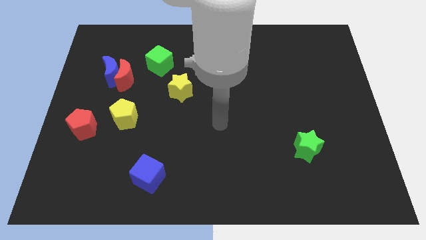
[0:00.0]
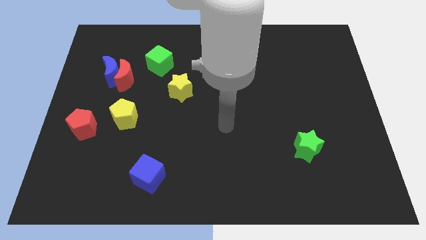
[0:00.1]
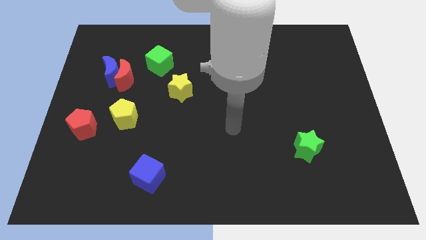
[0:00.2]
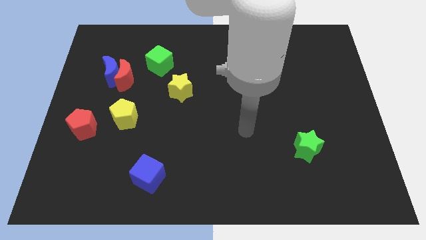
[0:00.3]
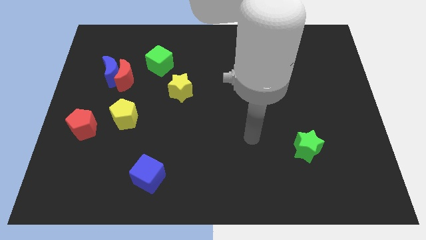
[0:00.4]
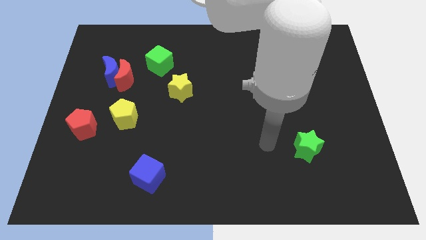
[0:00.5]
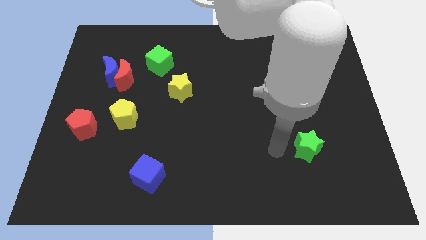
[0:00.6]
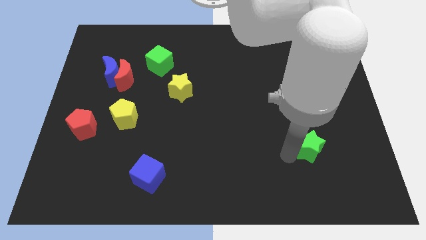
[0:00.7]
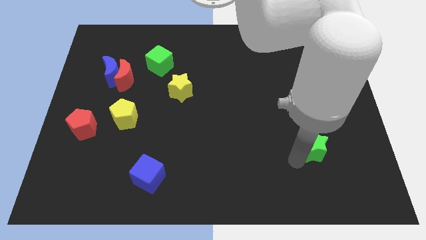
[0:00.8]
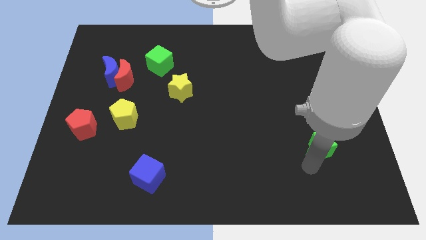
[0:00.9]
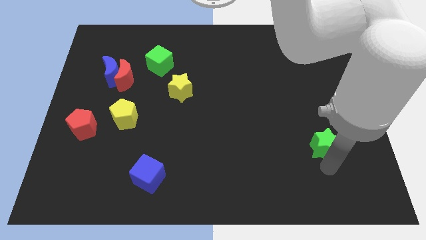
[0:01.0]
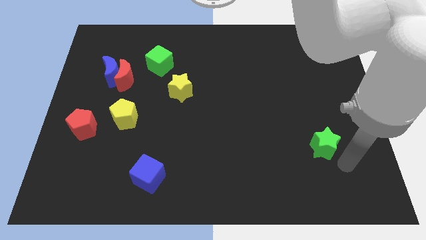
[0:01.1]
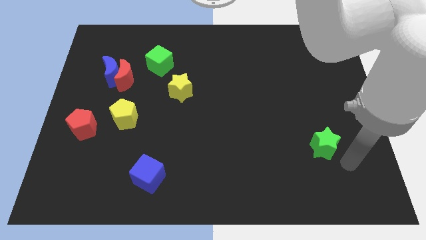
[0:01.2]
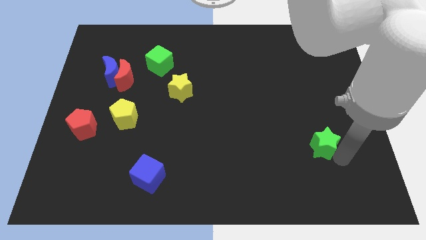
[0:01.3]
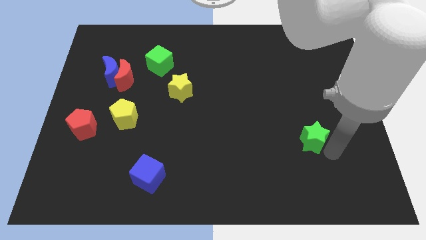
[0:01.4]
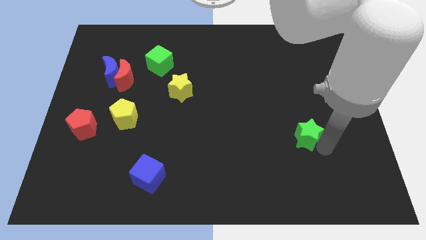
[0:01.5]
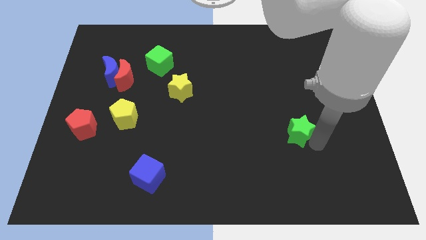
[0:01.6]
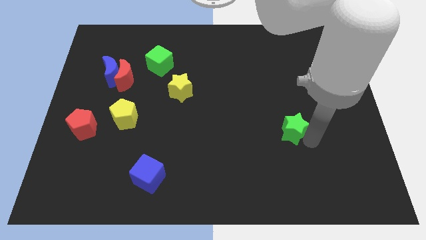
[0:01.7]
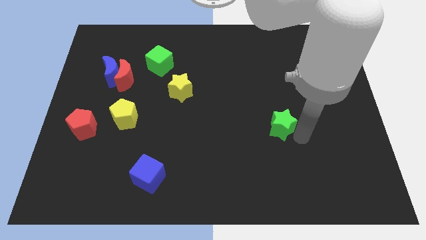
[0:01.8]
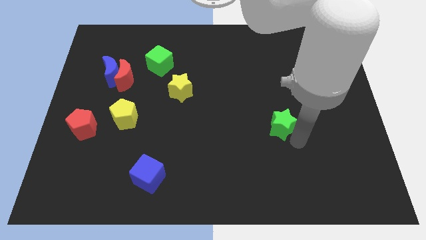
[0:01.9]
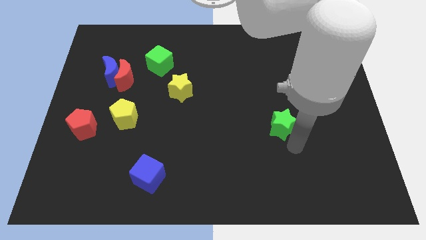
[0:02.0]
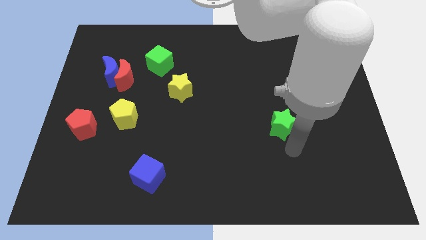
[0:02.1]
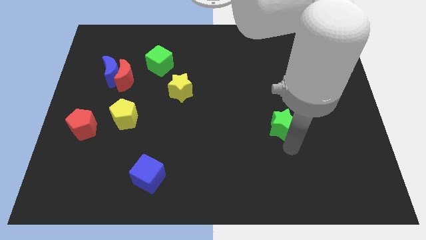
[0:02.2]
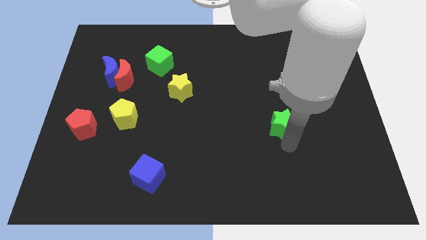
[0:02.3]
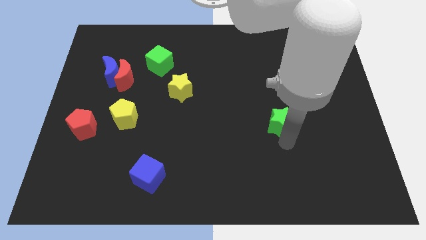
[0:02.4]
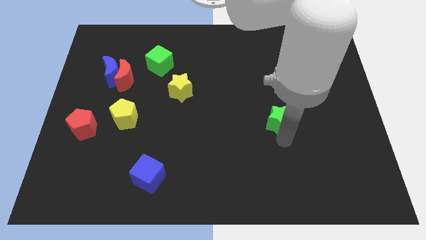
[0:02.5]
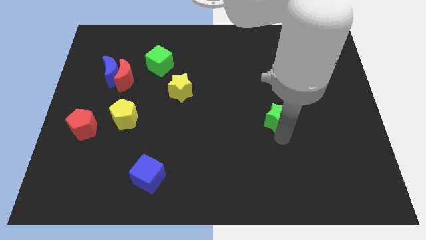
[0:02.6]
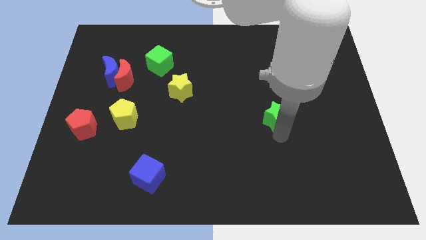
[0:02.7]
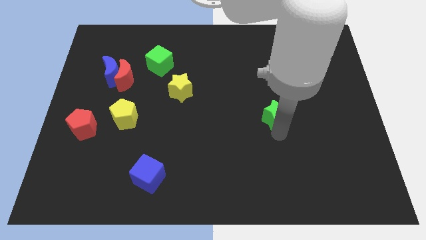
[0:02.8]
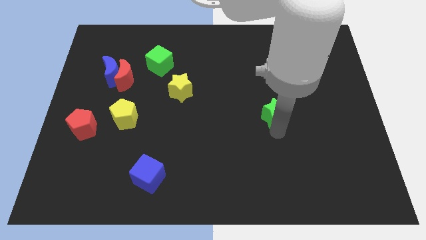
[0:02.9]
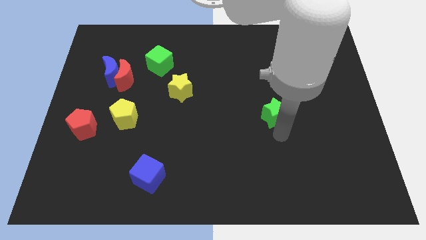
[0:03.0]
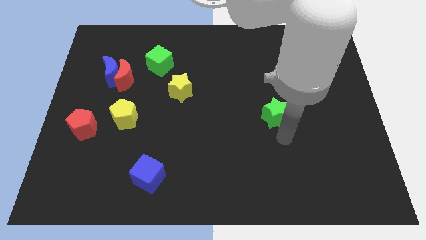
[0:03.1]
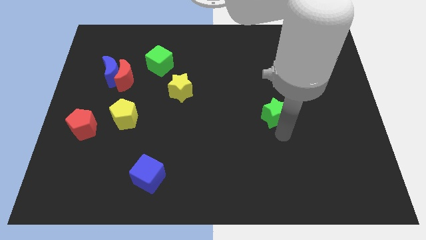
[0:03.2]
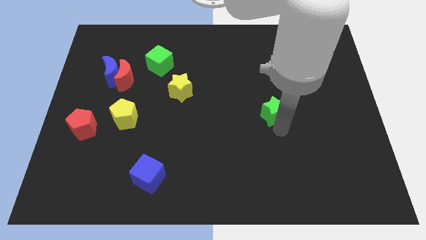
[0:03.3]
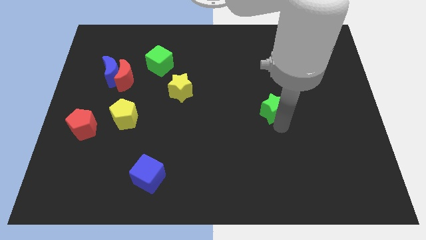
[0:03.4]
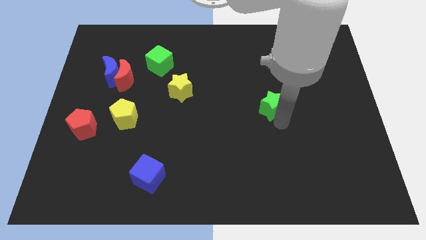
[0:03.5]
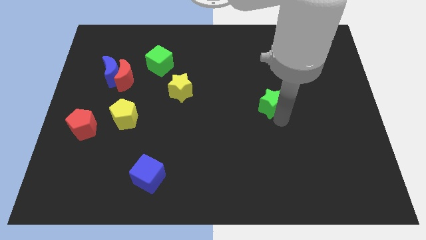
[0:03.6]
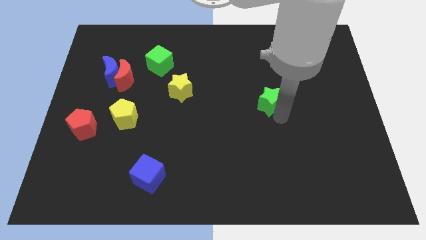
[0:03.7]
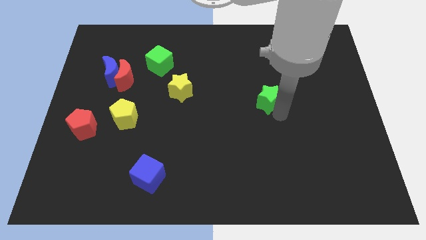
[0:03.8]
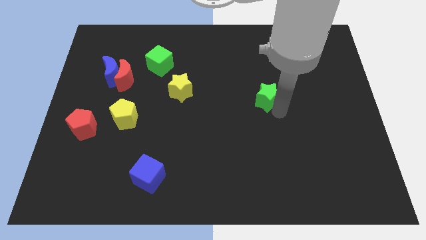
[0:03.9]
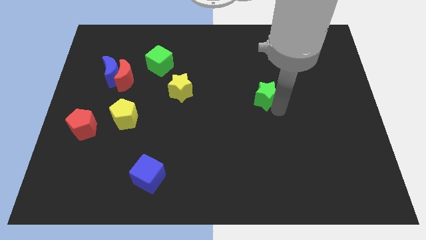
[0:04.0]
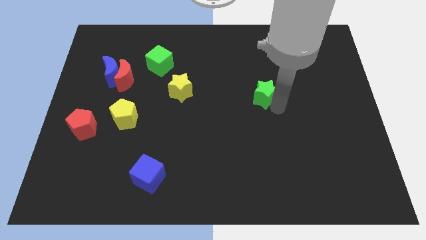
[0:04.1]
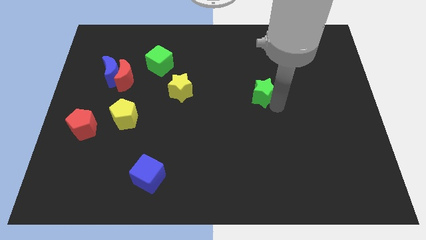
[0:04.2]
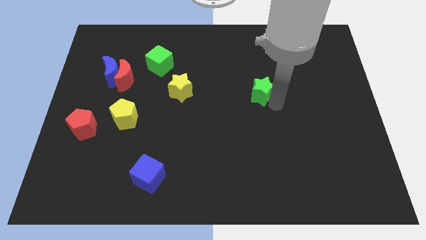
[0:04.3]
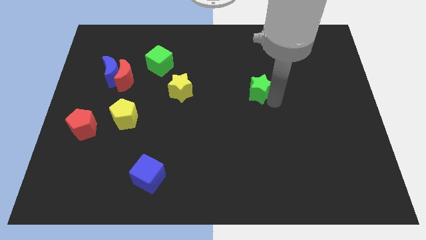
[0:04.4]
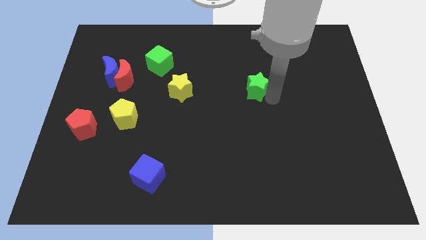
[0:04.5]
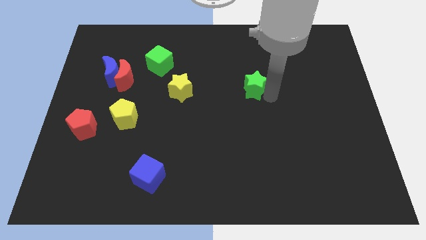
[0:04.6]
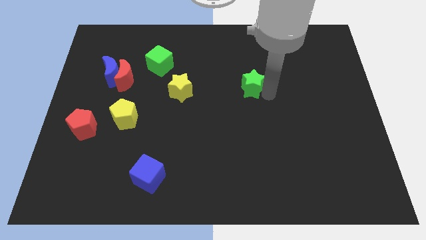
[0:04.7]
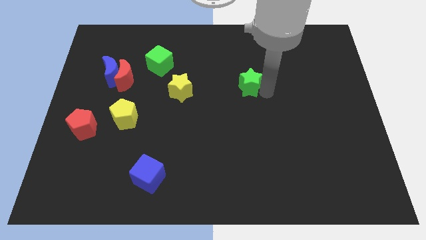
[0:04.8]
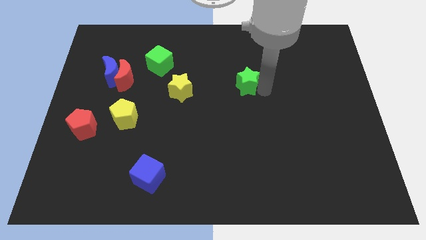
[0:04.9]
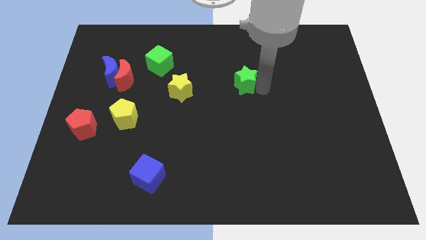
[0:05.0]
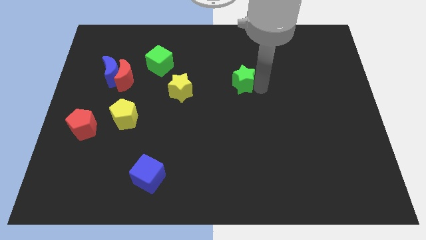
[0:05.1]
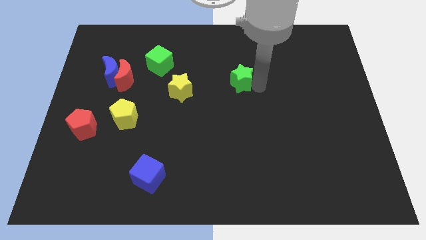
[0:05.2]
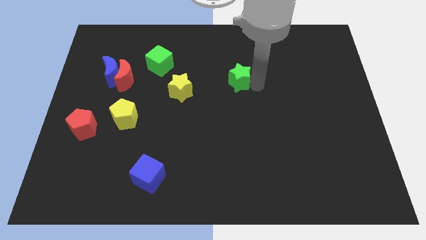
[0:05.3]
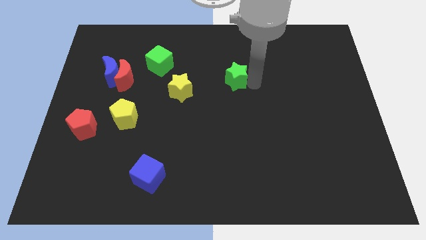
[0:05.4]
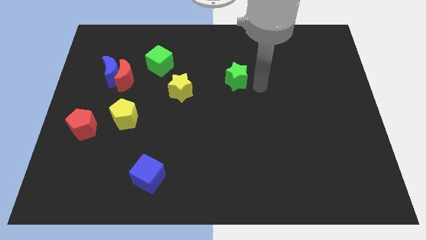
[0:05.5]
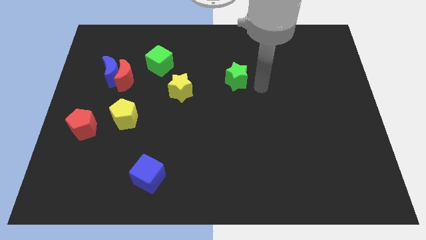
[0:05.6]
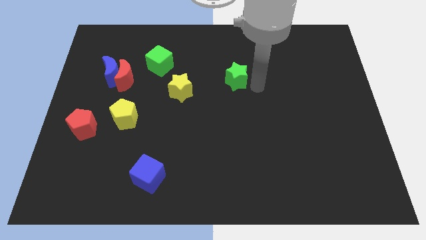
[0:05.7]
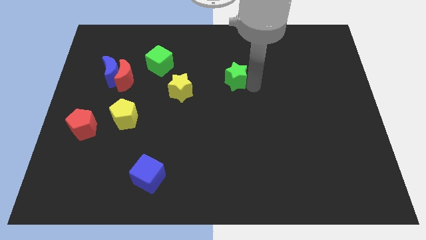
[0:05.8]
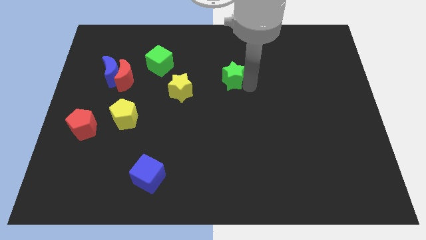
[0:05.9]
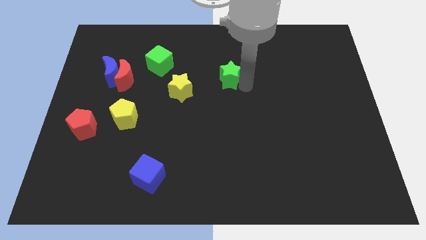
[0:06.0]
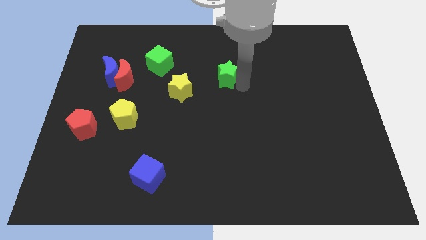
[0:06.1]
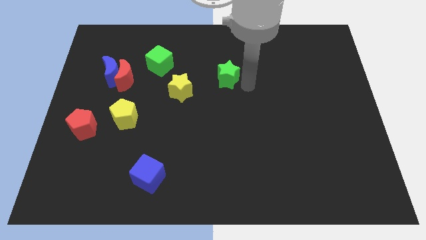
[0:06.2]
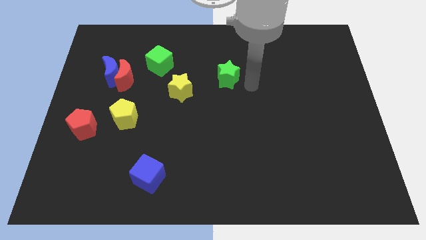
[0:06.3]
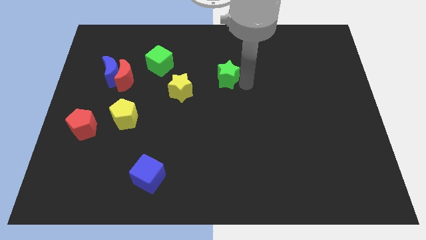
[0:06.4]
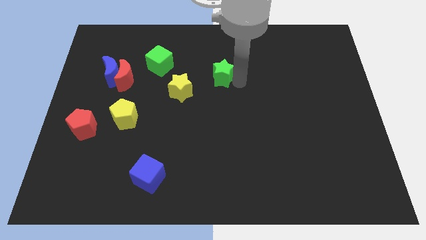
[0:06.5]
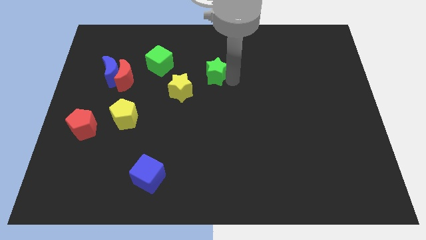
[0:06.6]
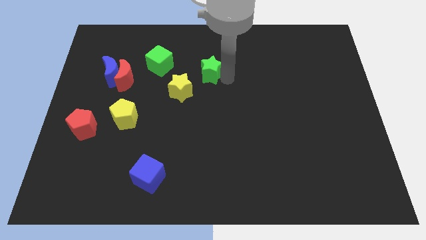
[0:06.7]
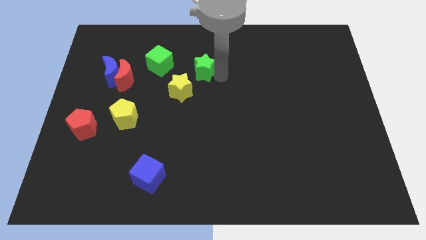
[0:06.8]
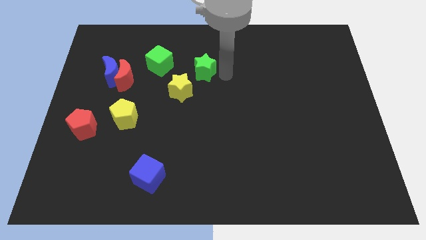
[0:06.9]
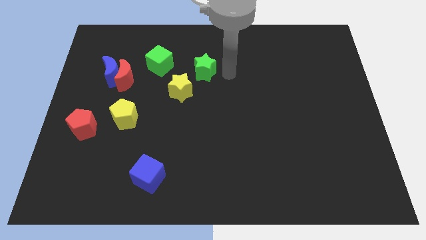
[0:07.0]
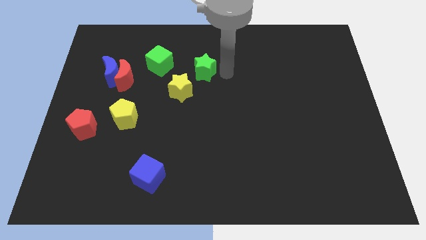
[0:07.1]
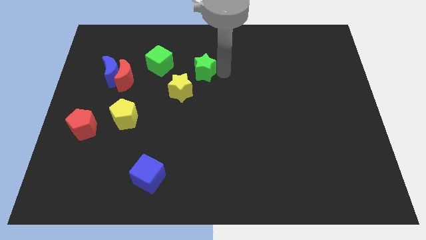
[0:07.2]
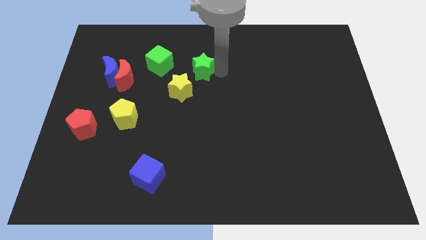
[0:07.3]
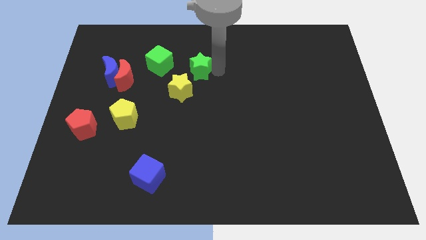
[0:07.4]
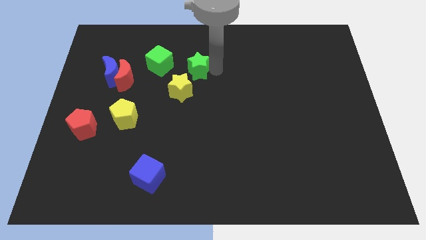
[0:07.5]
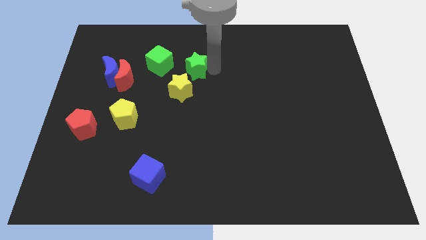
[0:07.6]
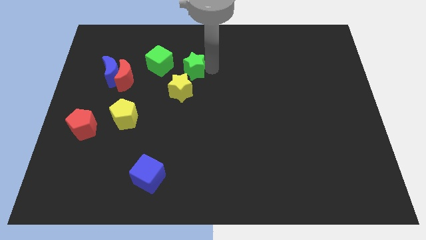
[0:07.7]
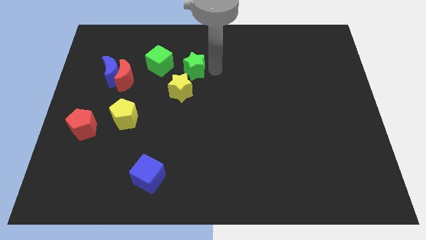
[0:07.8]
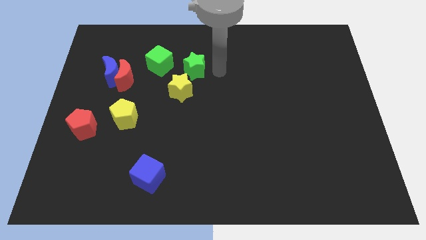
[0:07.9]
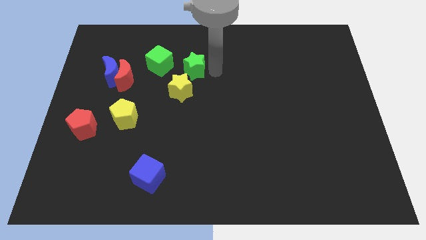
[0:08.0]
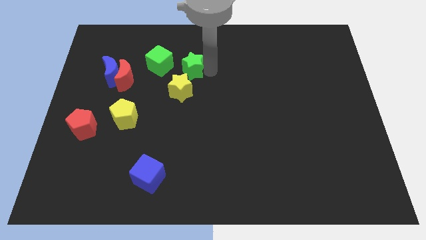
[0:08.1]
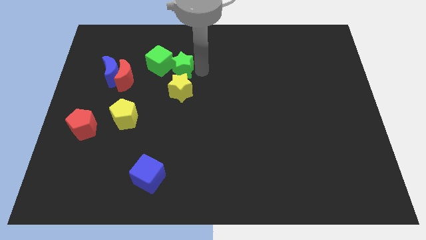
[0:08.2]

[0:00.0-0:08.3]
put the green star close to the green cube
